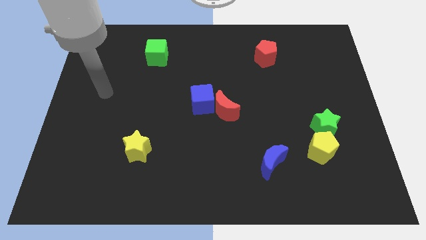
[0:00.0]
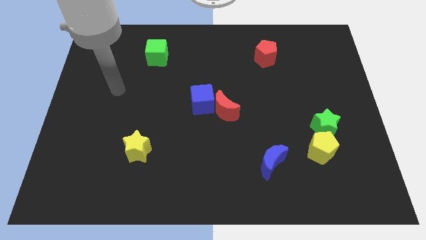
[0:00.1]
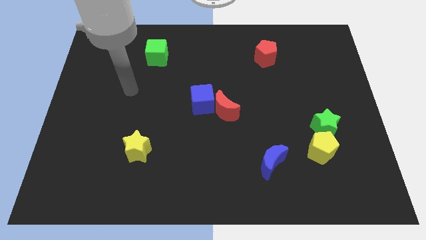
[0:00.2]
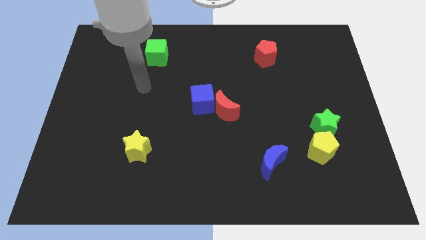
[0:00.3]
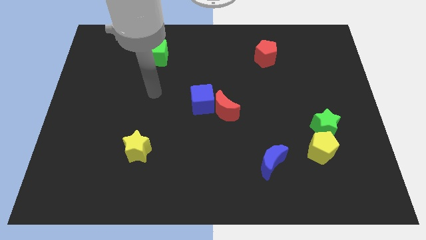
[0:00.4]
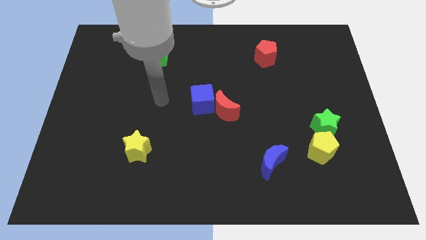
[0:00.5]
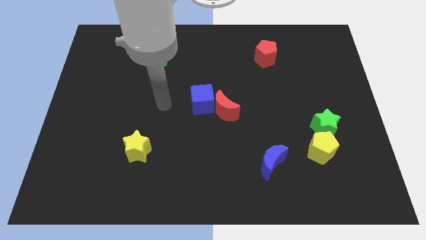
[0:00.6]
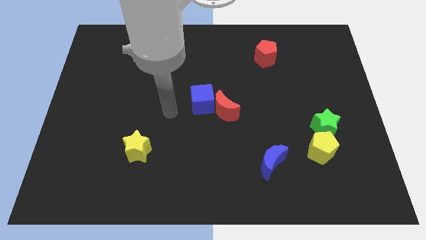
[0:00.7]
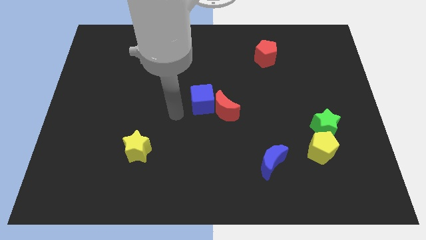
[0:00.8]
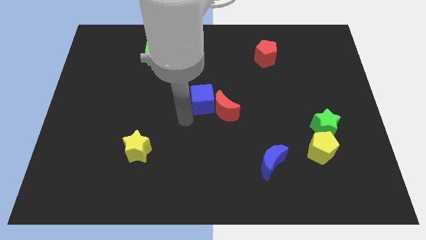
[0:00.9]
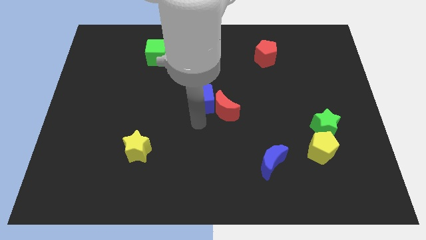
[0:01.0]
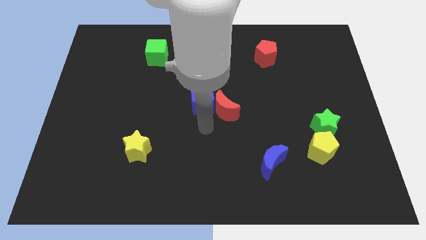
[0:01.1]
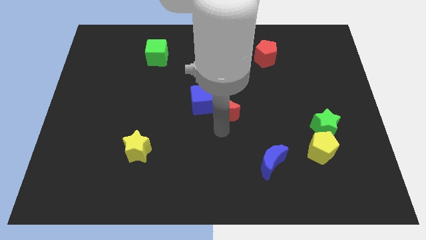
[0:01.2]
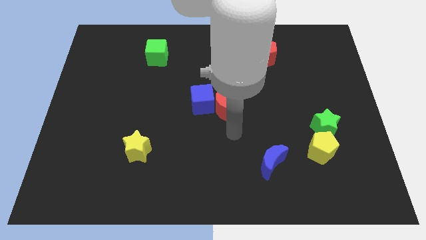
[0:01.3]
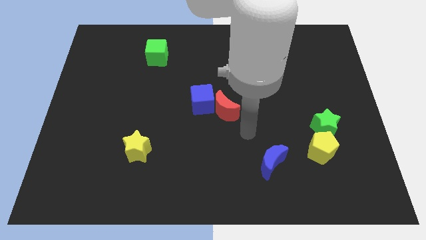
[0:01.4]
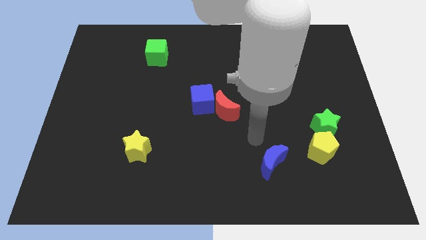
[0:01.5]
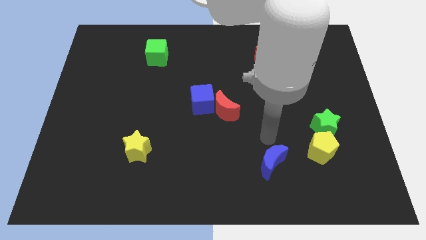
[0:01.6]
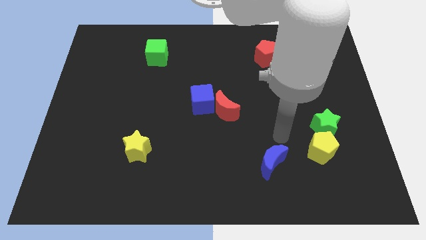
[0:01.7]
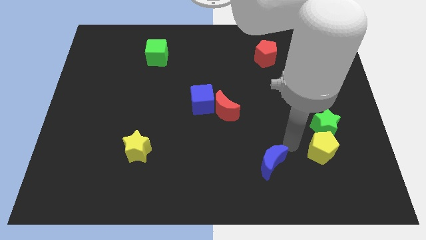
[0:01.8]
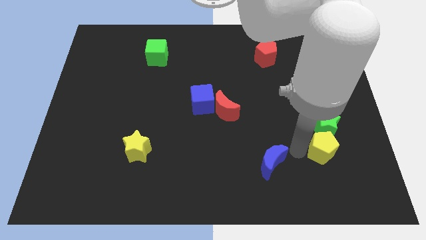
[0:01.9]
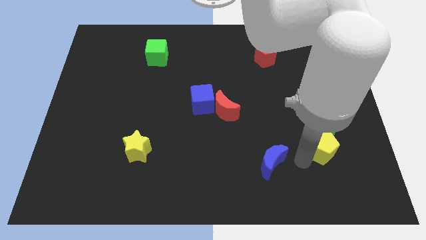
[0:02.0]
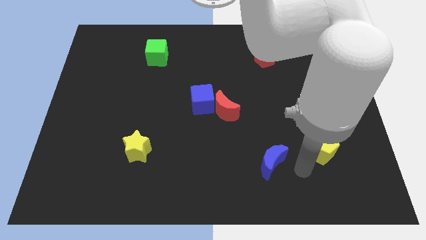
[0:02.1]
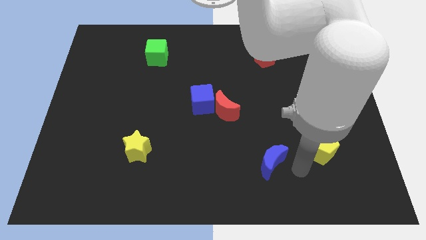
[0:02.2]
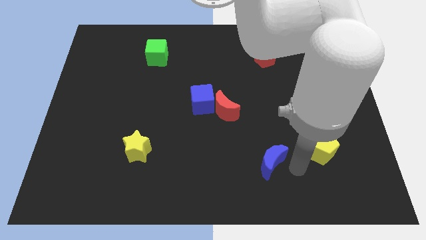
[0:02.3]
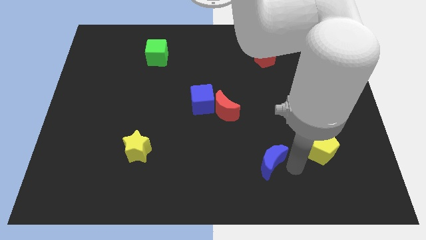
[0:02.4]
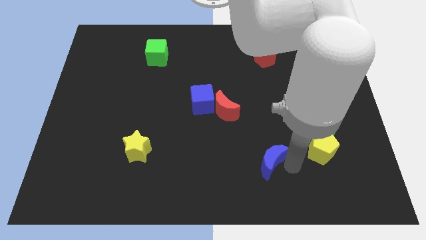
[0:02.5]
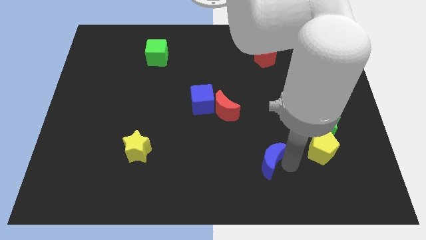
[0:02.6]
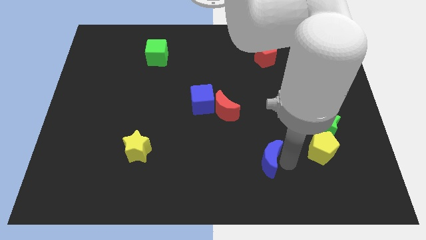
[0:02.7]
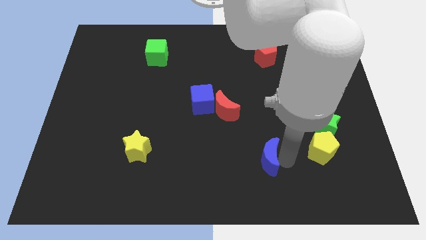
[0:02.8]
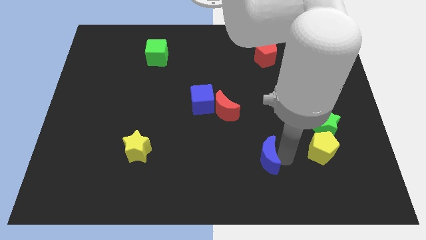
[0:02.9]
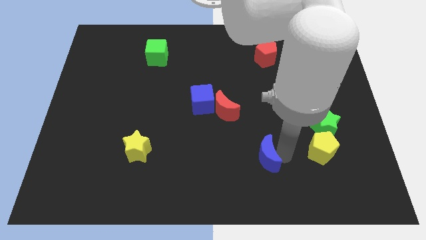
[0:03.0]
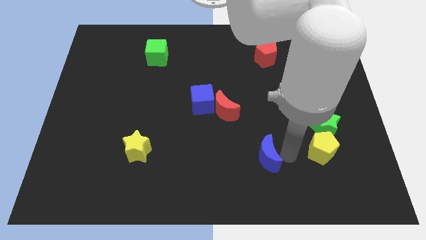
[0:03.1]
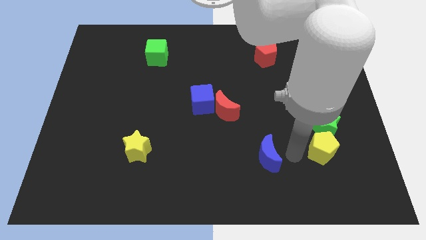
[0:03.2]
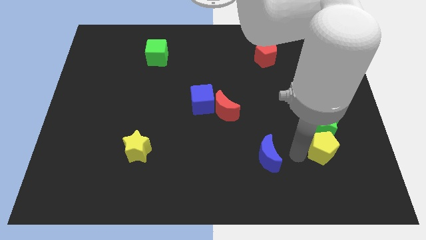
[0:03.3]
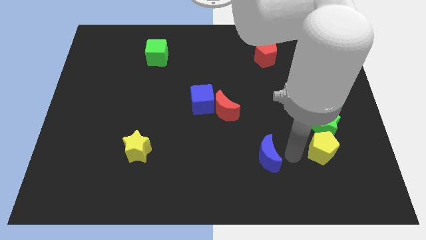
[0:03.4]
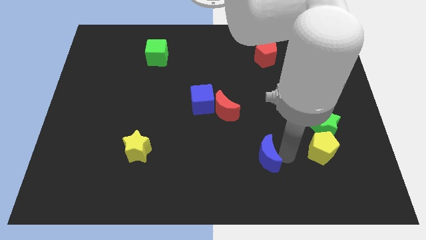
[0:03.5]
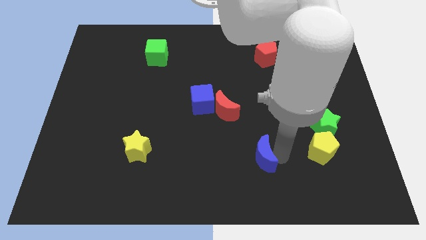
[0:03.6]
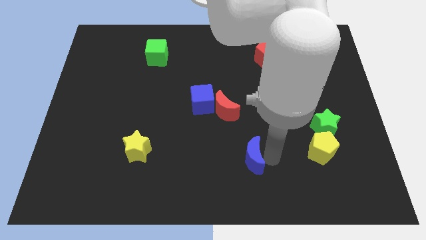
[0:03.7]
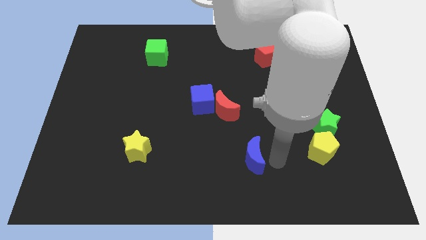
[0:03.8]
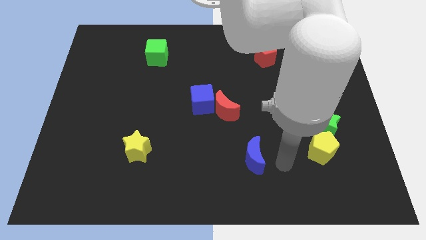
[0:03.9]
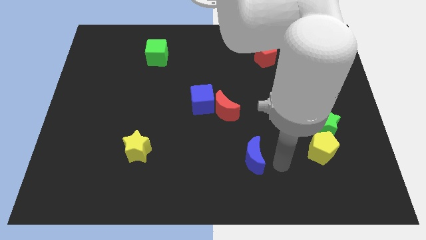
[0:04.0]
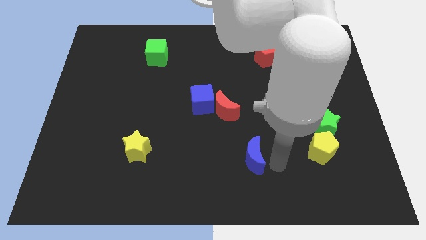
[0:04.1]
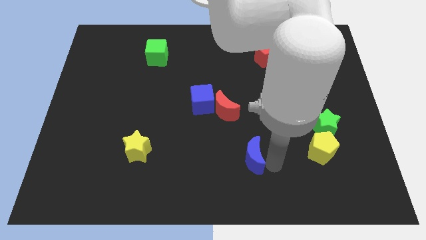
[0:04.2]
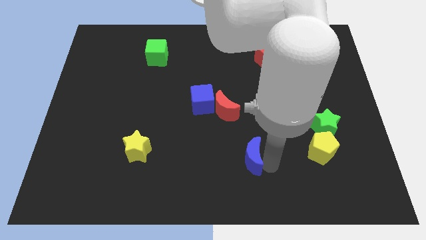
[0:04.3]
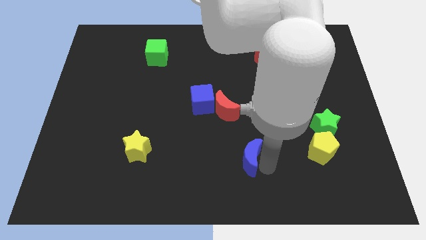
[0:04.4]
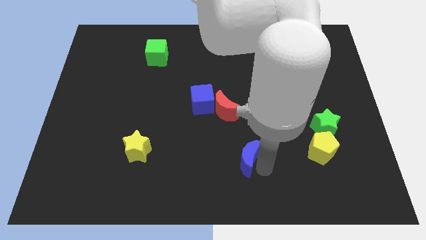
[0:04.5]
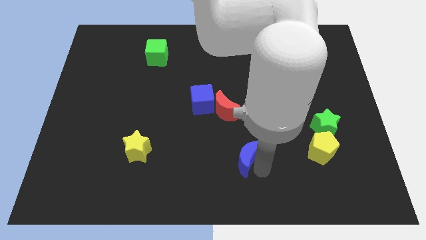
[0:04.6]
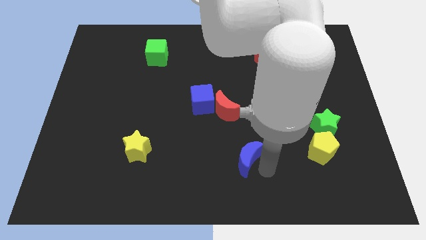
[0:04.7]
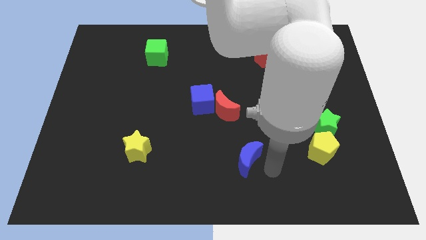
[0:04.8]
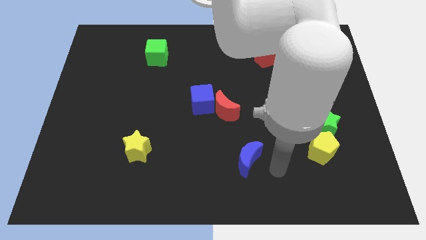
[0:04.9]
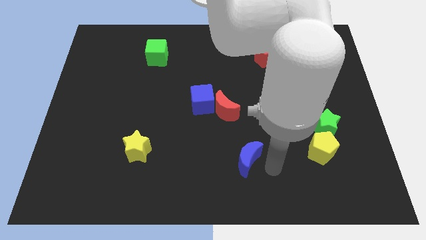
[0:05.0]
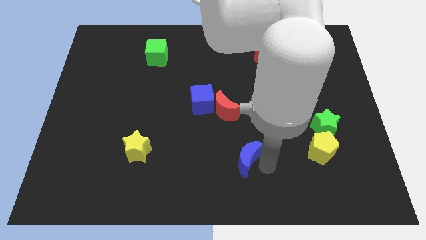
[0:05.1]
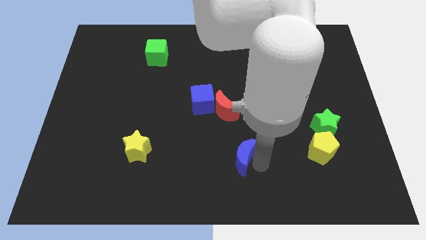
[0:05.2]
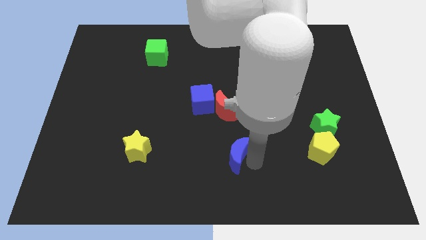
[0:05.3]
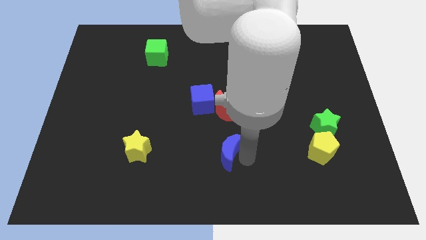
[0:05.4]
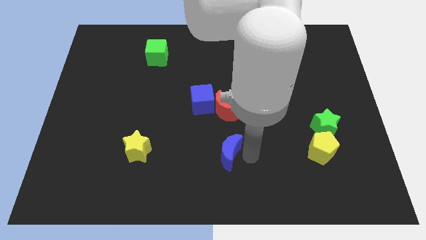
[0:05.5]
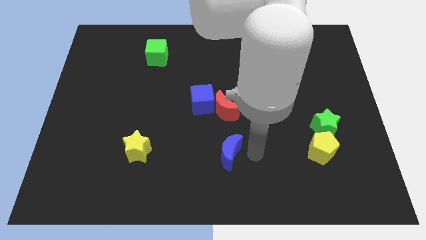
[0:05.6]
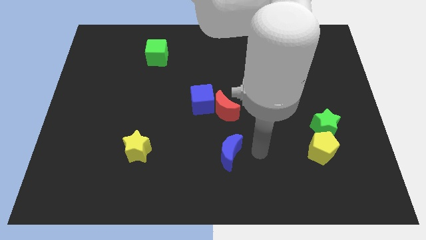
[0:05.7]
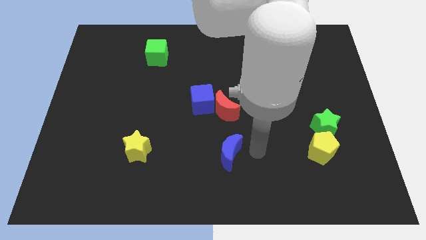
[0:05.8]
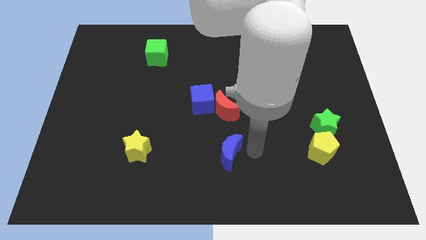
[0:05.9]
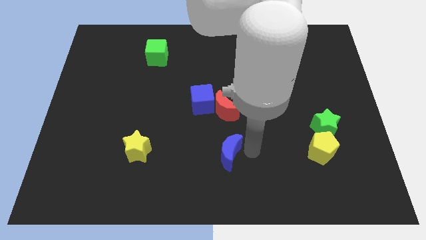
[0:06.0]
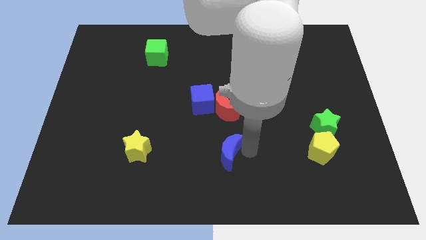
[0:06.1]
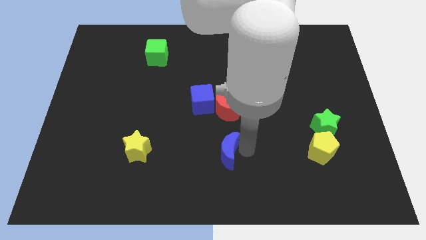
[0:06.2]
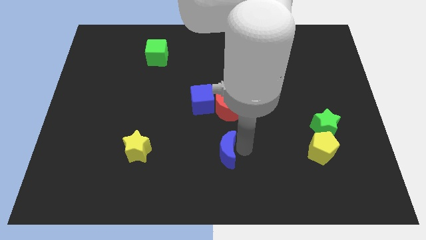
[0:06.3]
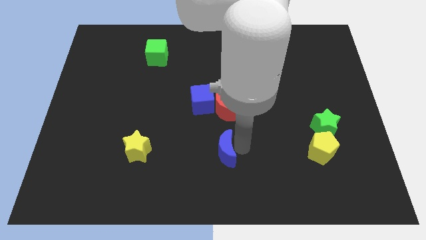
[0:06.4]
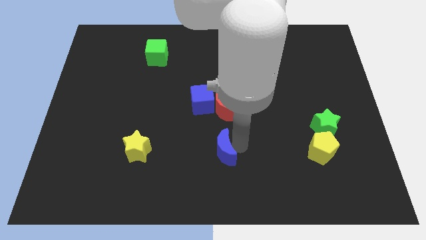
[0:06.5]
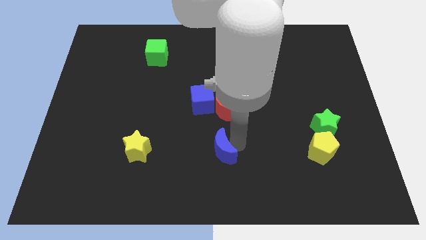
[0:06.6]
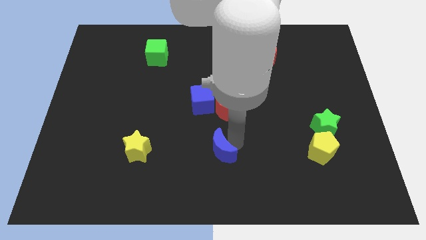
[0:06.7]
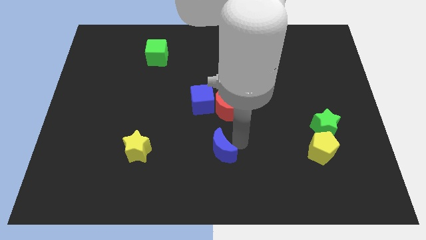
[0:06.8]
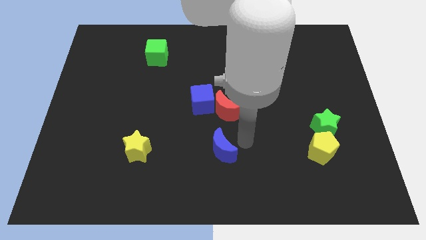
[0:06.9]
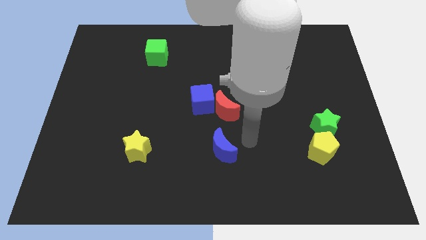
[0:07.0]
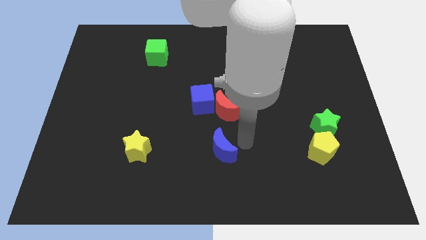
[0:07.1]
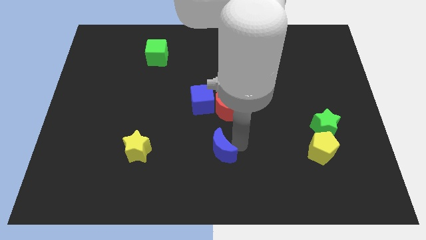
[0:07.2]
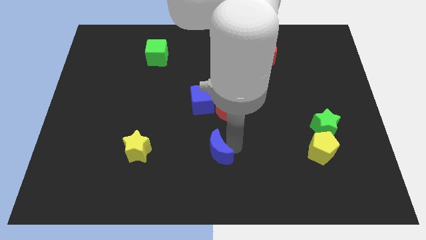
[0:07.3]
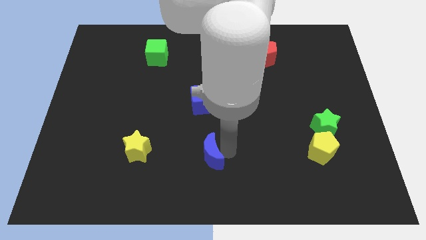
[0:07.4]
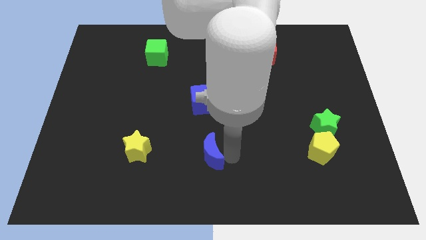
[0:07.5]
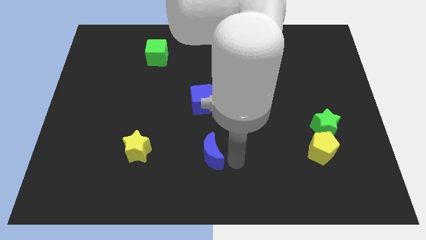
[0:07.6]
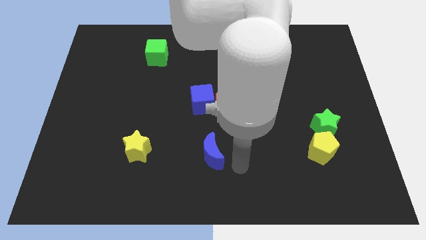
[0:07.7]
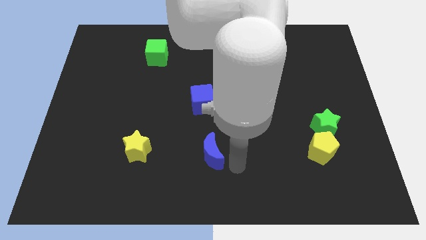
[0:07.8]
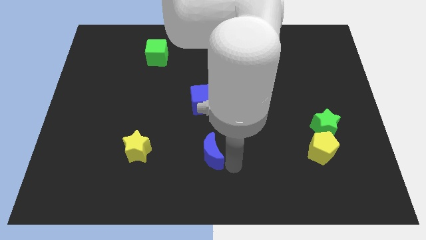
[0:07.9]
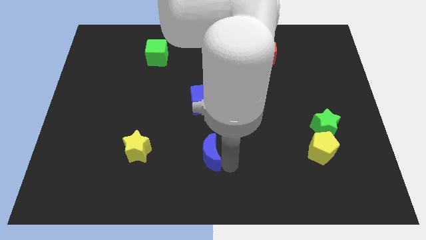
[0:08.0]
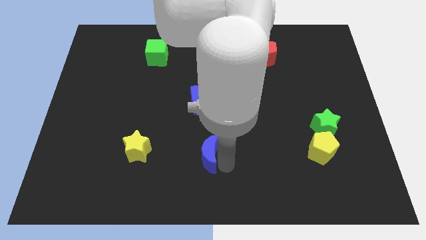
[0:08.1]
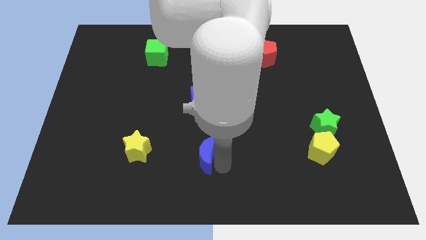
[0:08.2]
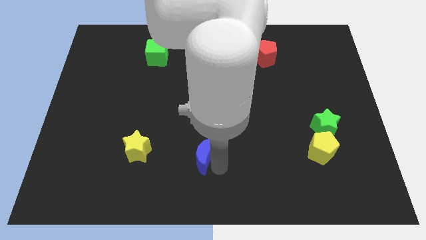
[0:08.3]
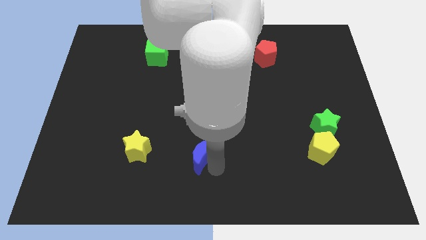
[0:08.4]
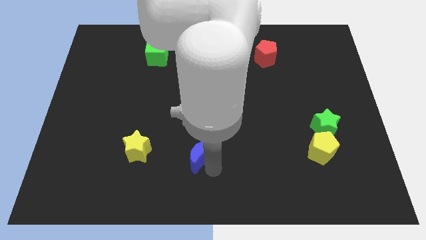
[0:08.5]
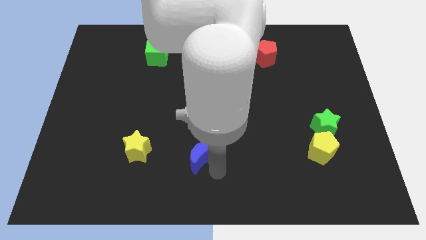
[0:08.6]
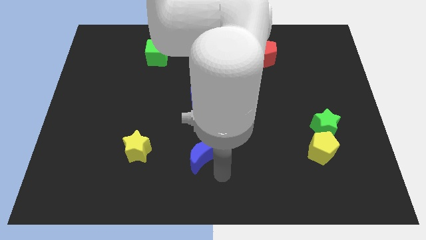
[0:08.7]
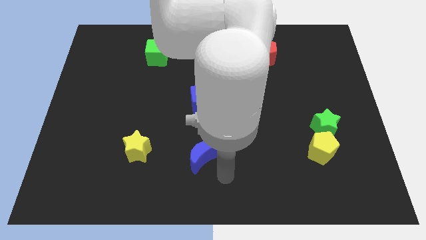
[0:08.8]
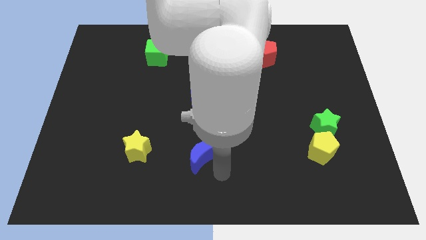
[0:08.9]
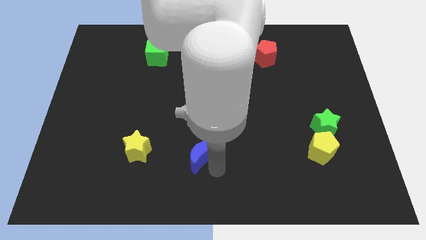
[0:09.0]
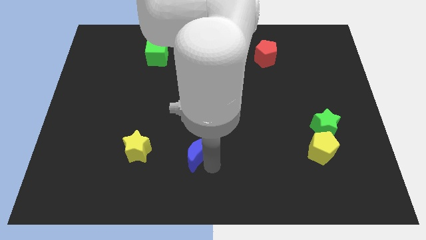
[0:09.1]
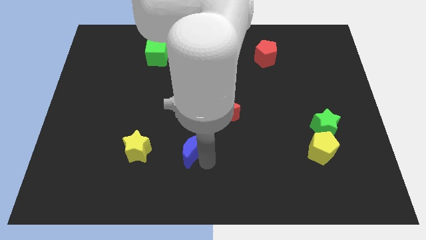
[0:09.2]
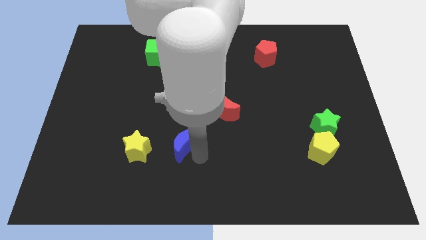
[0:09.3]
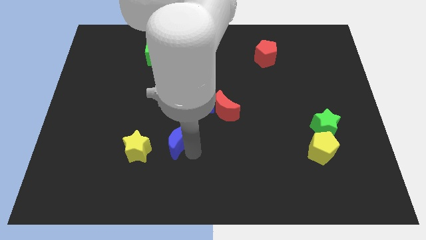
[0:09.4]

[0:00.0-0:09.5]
push the blue moon diagonally up and to the right of the yellow star
